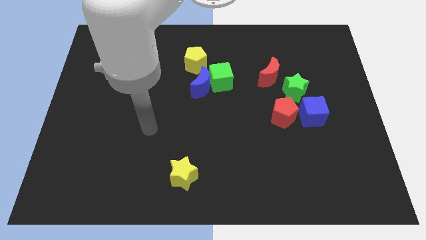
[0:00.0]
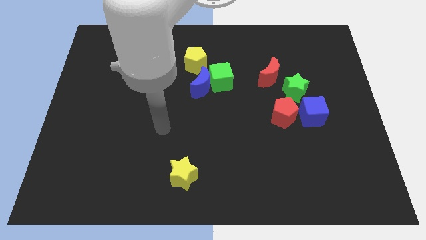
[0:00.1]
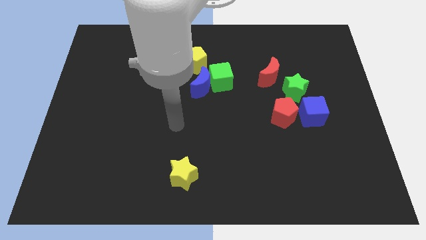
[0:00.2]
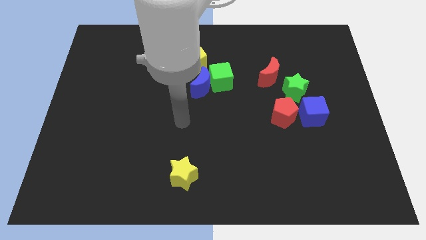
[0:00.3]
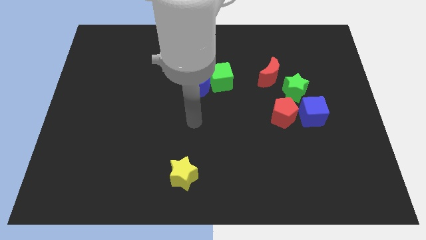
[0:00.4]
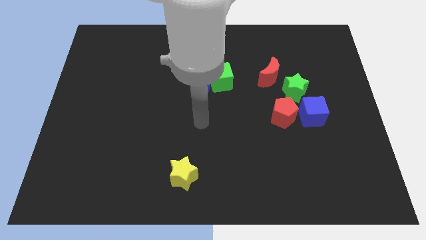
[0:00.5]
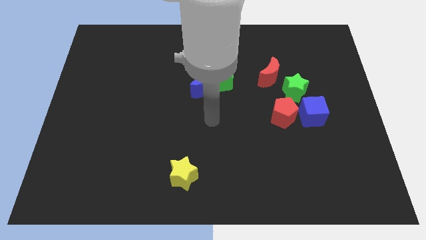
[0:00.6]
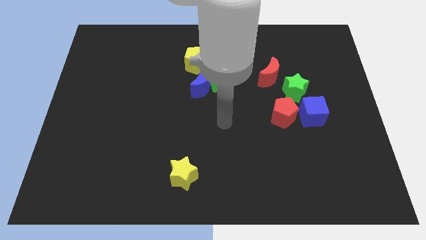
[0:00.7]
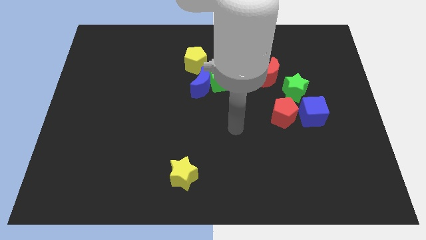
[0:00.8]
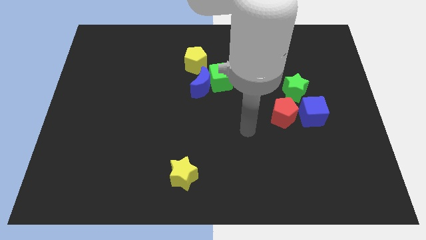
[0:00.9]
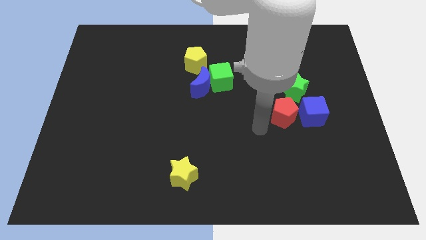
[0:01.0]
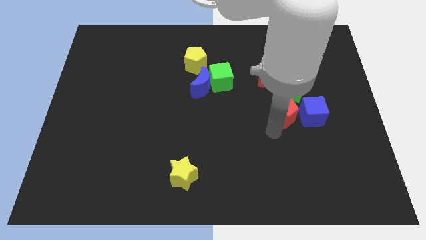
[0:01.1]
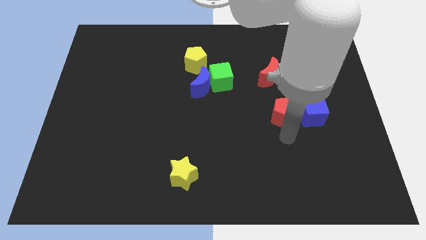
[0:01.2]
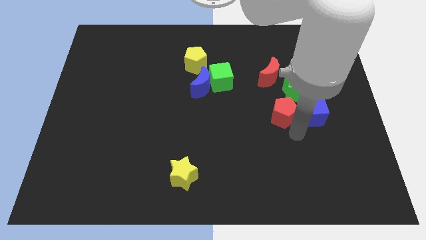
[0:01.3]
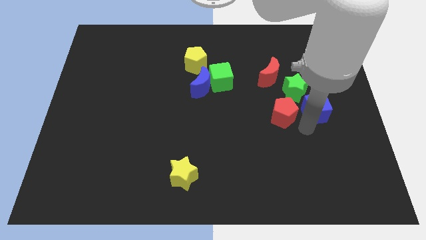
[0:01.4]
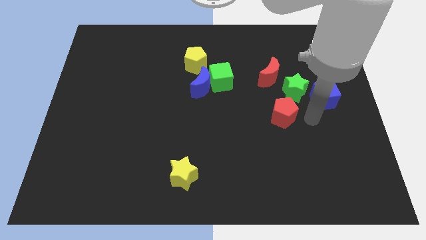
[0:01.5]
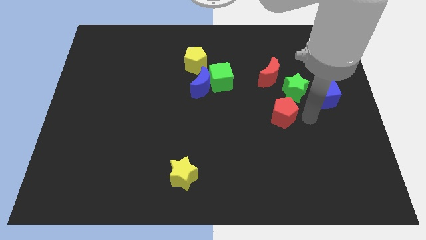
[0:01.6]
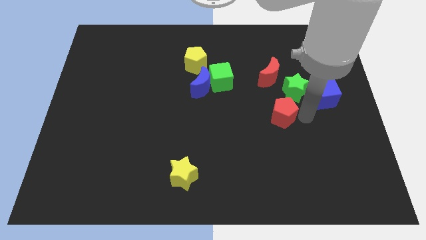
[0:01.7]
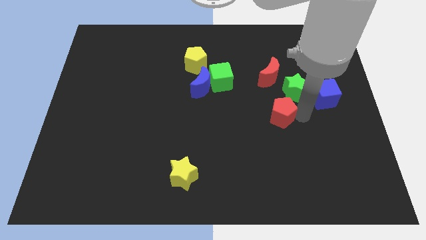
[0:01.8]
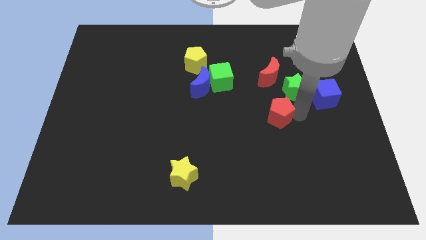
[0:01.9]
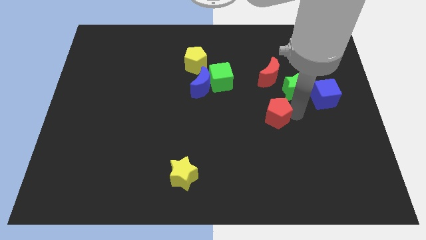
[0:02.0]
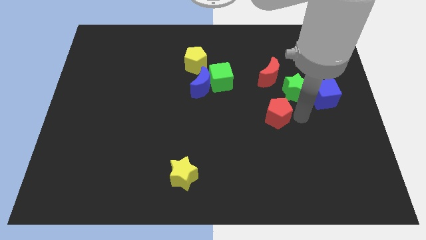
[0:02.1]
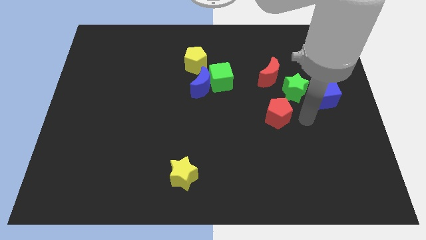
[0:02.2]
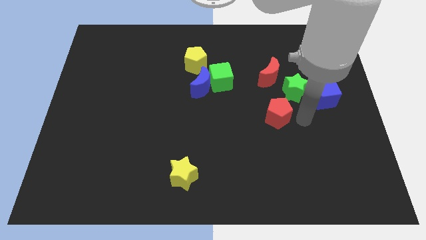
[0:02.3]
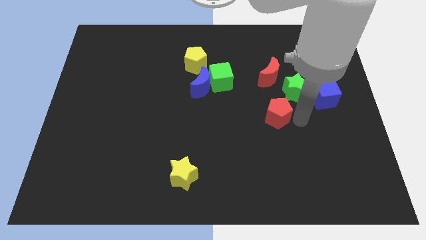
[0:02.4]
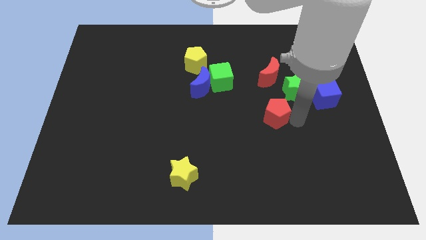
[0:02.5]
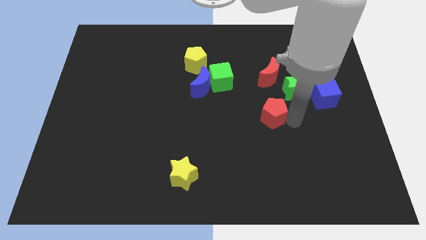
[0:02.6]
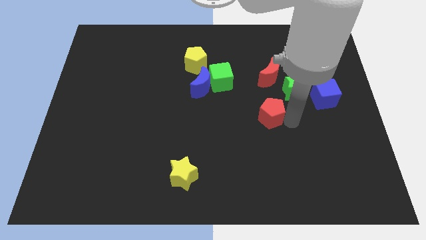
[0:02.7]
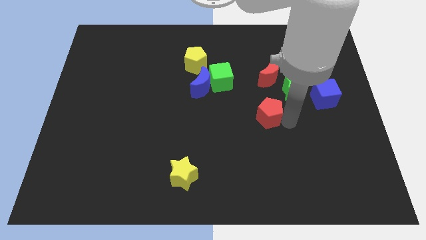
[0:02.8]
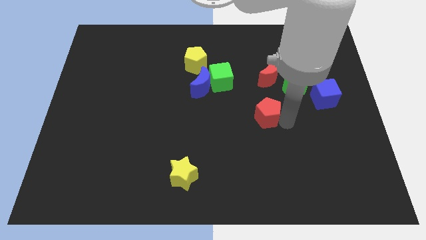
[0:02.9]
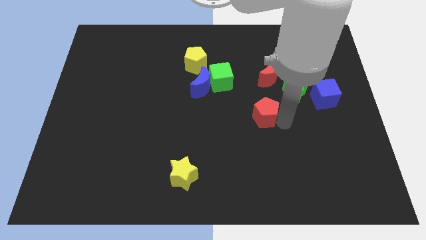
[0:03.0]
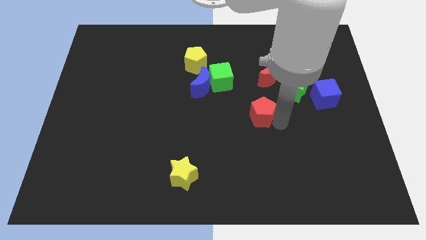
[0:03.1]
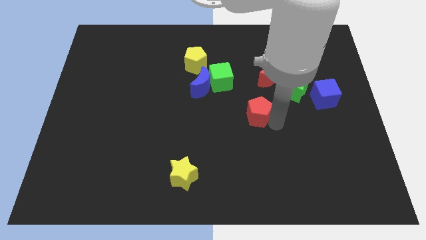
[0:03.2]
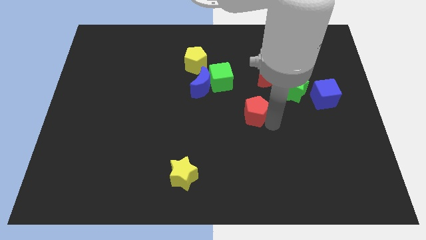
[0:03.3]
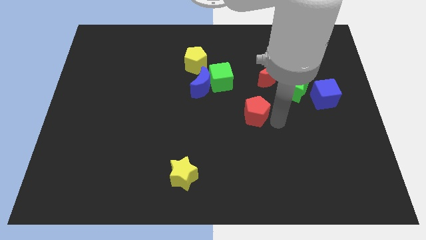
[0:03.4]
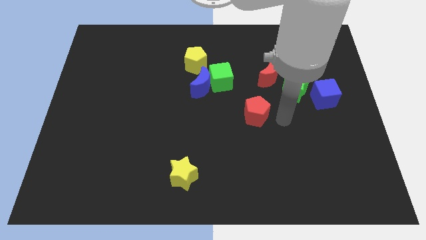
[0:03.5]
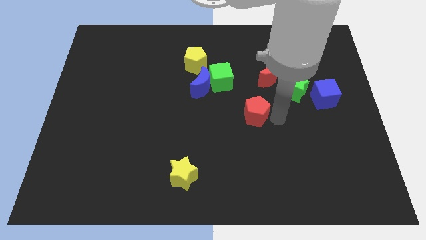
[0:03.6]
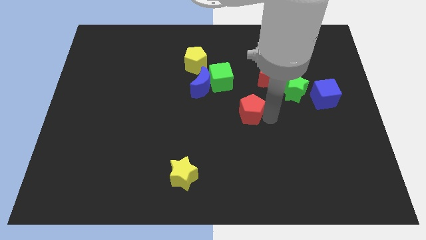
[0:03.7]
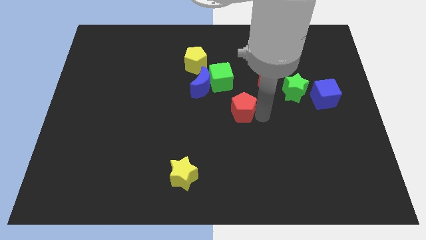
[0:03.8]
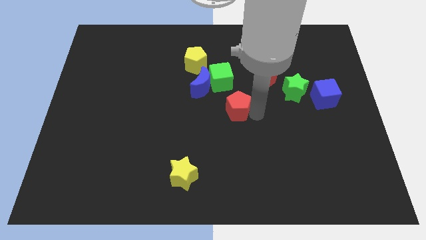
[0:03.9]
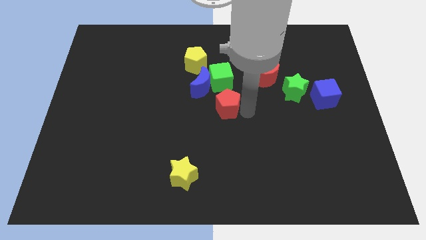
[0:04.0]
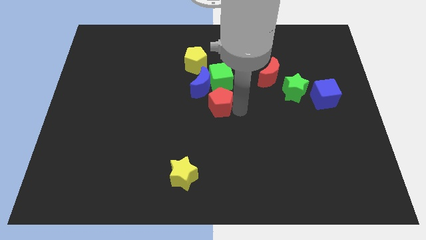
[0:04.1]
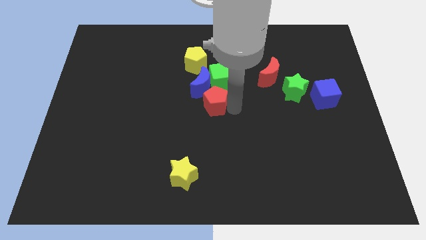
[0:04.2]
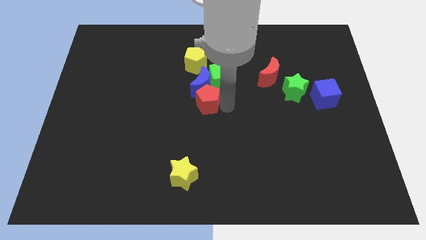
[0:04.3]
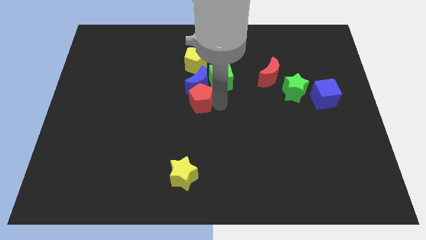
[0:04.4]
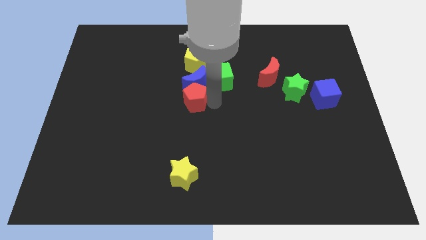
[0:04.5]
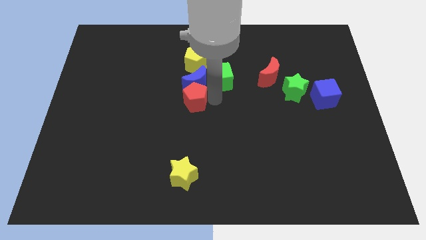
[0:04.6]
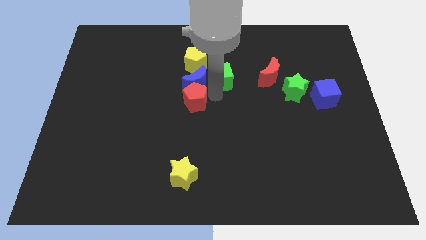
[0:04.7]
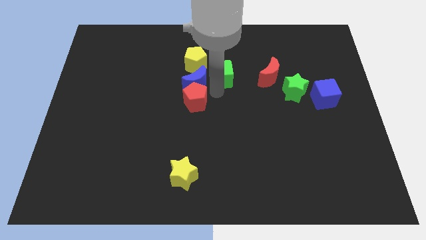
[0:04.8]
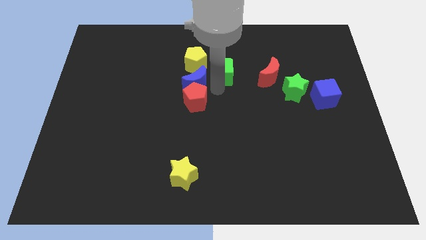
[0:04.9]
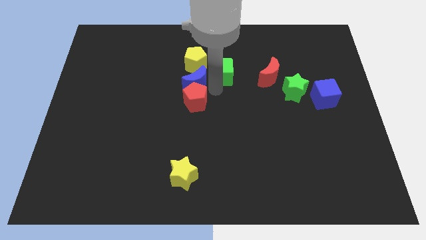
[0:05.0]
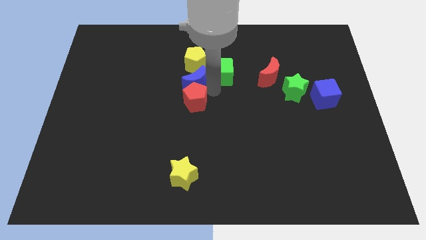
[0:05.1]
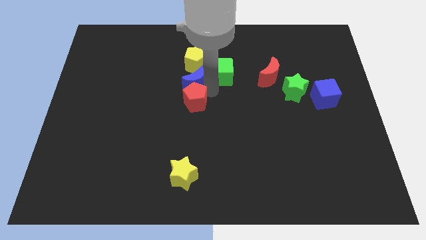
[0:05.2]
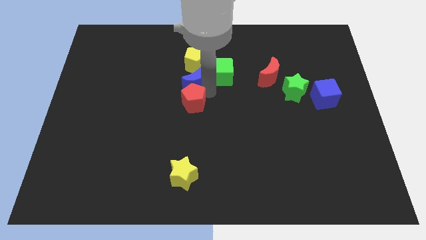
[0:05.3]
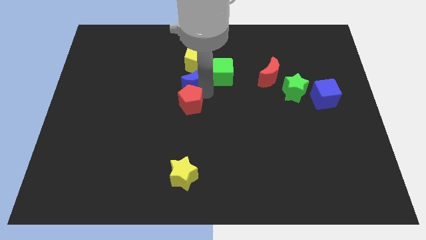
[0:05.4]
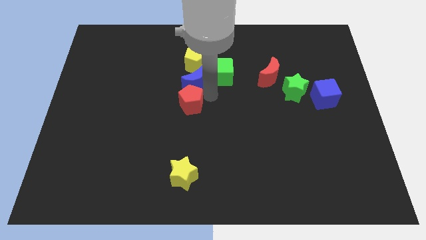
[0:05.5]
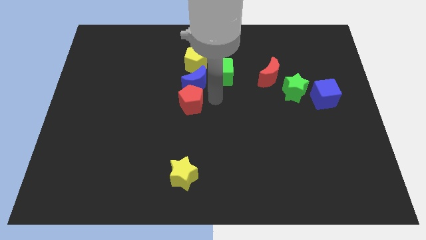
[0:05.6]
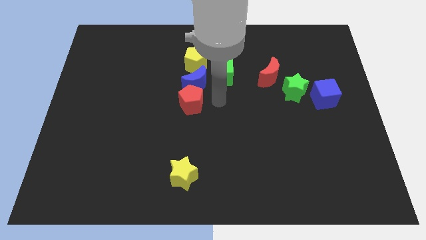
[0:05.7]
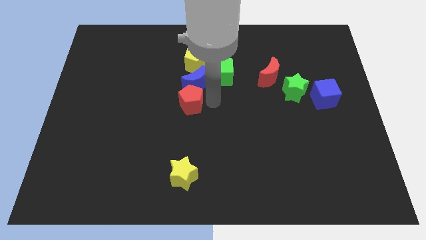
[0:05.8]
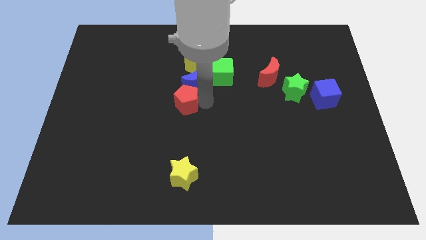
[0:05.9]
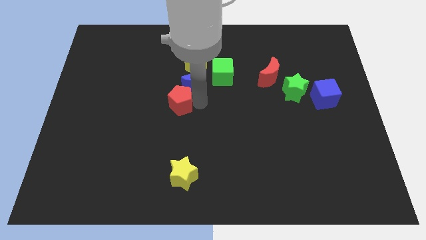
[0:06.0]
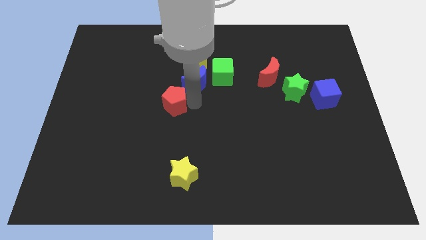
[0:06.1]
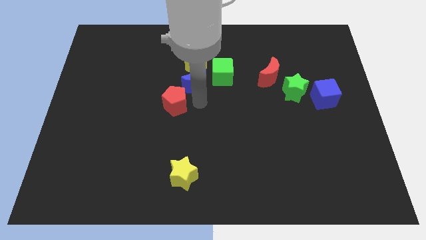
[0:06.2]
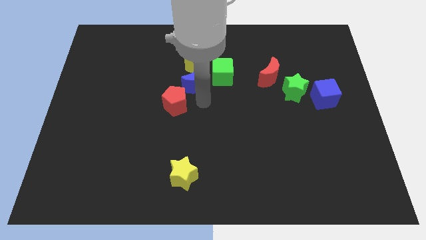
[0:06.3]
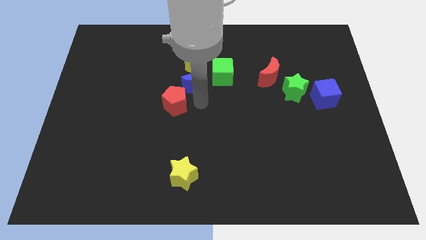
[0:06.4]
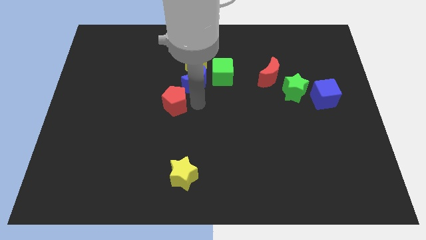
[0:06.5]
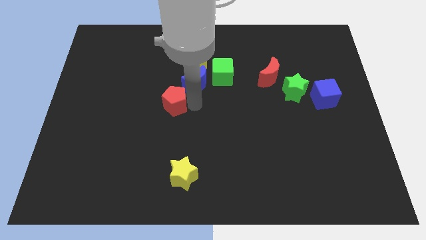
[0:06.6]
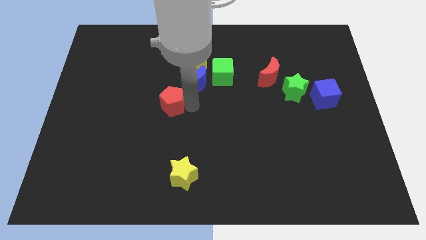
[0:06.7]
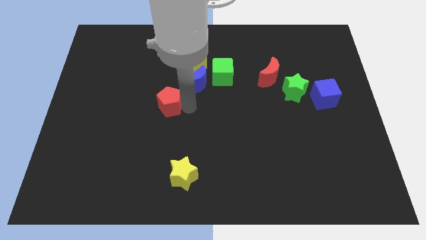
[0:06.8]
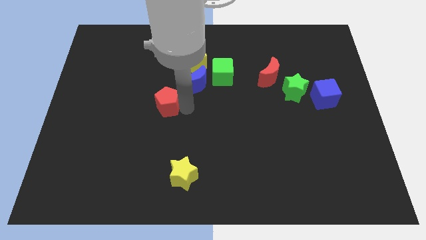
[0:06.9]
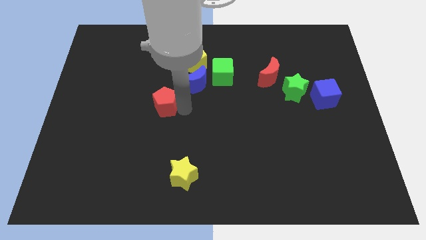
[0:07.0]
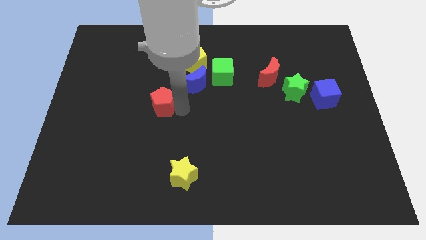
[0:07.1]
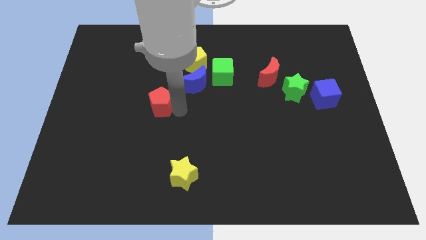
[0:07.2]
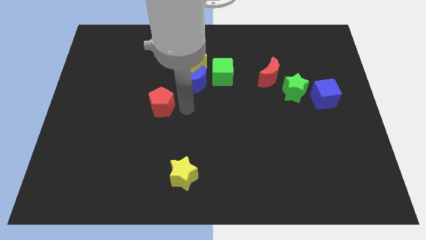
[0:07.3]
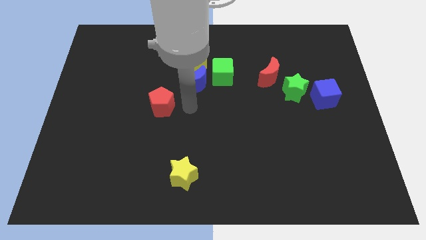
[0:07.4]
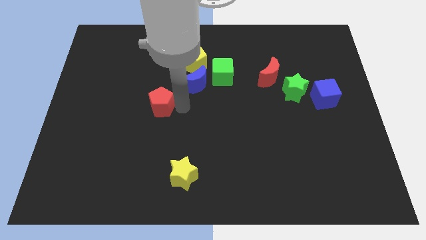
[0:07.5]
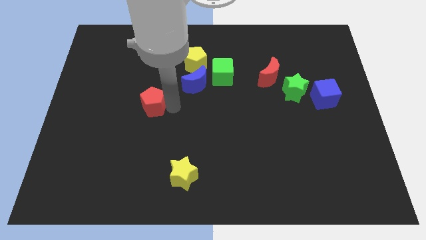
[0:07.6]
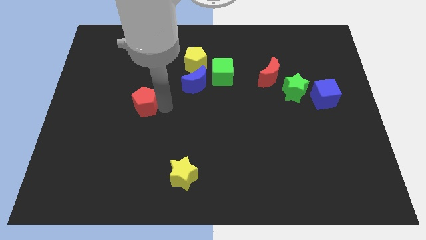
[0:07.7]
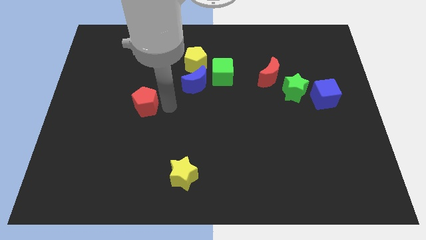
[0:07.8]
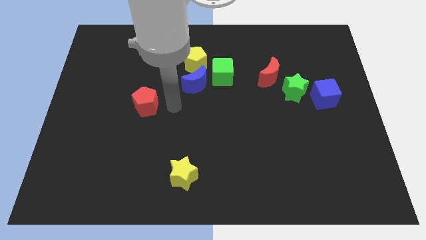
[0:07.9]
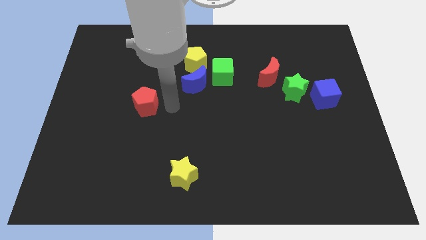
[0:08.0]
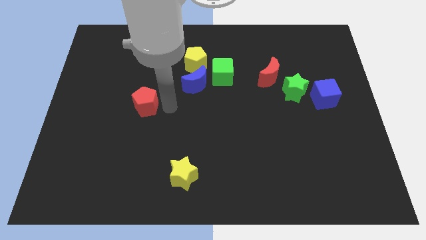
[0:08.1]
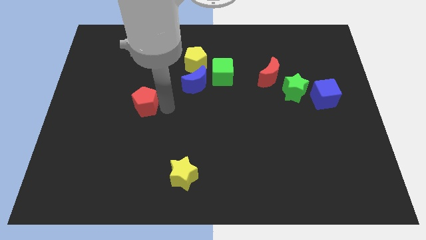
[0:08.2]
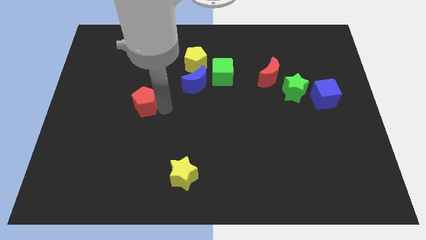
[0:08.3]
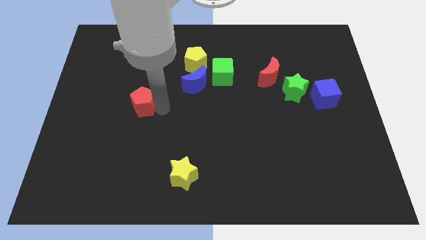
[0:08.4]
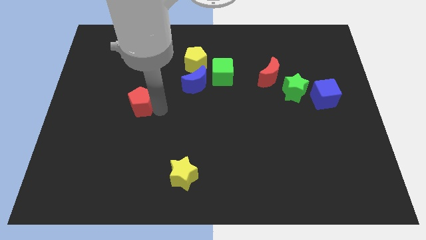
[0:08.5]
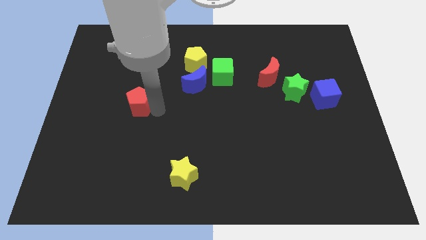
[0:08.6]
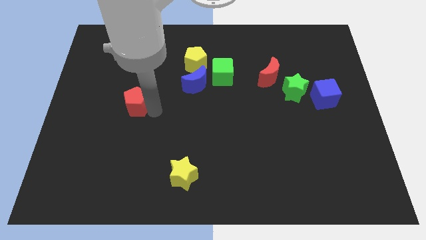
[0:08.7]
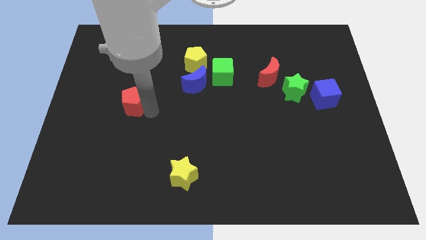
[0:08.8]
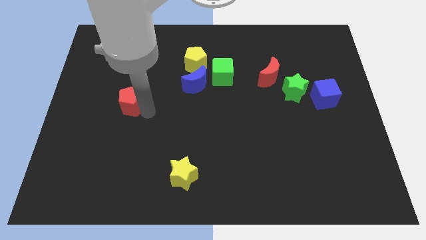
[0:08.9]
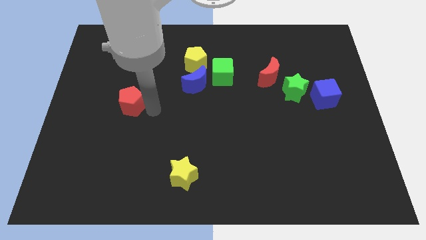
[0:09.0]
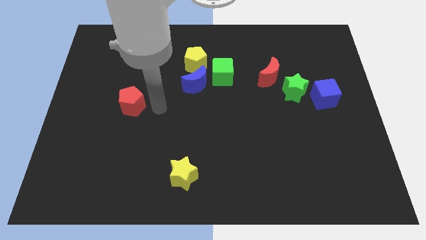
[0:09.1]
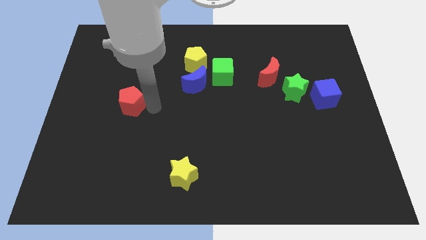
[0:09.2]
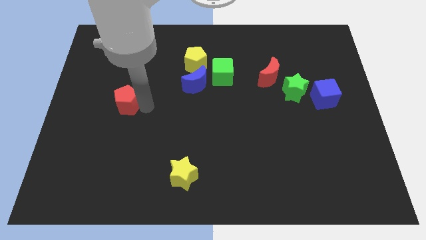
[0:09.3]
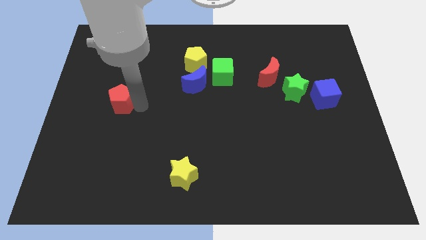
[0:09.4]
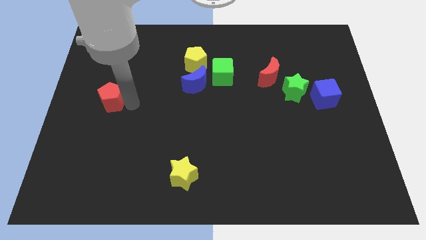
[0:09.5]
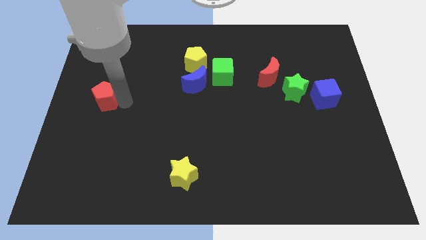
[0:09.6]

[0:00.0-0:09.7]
put the red pentagon to the left side of the board
